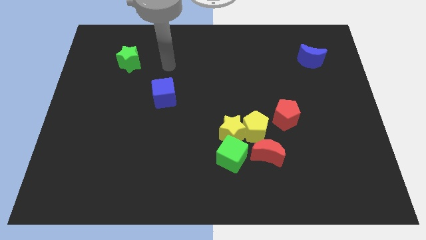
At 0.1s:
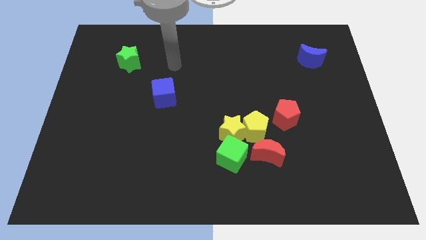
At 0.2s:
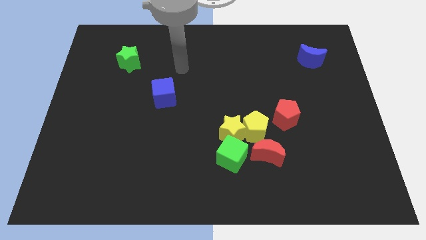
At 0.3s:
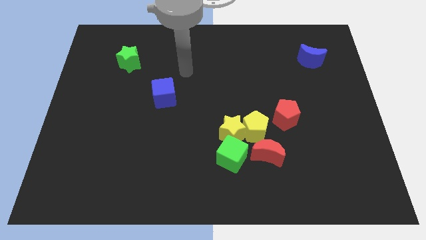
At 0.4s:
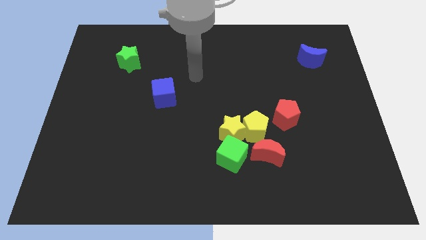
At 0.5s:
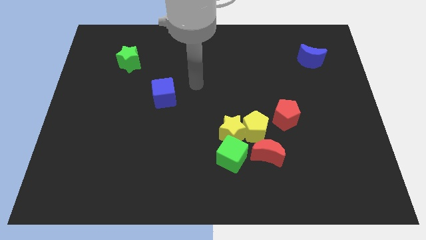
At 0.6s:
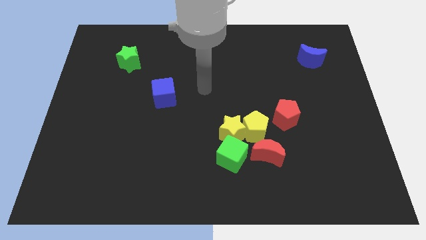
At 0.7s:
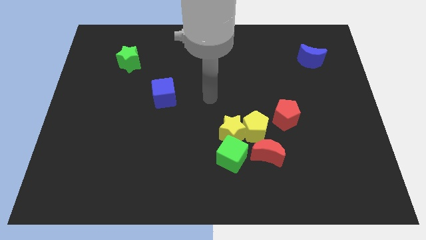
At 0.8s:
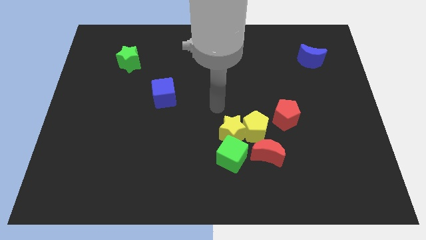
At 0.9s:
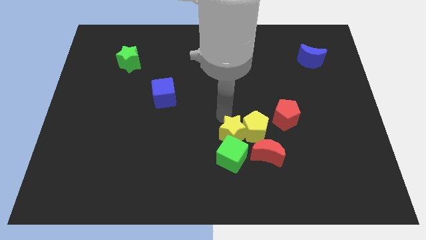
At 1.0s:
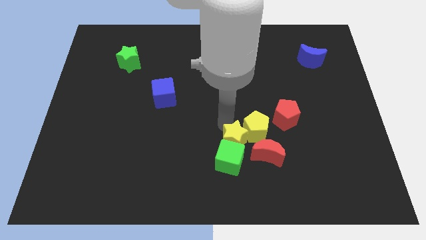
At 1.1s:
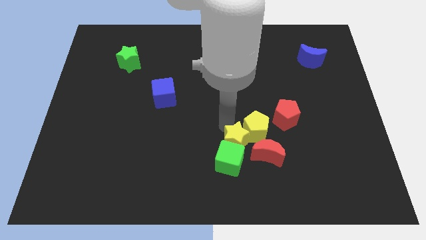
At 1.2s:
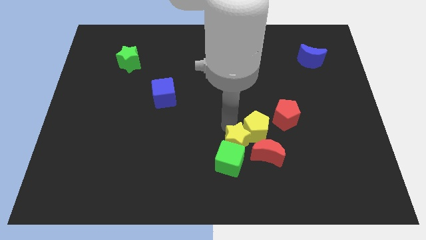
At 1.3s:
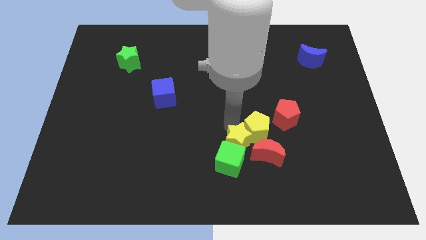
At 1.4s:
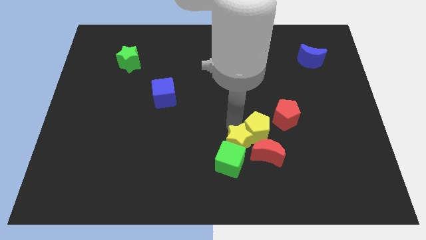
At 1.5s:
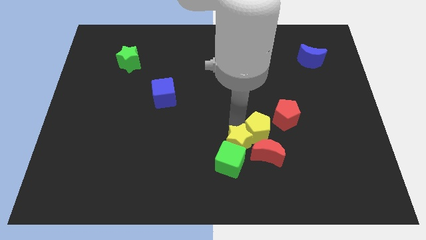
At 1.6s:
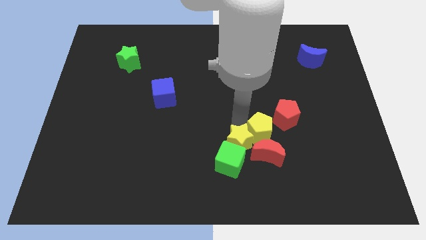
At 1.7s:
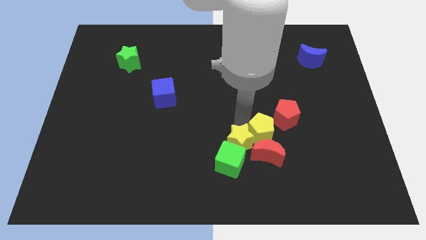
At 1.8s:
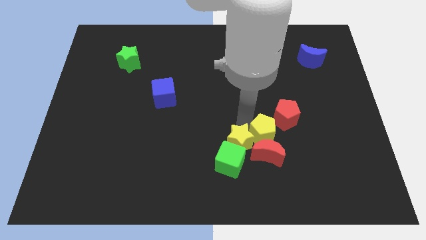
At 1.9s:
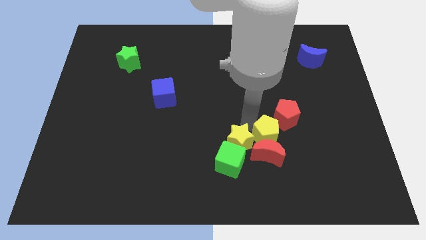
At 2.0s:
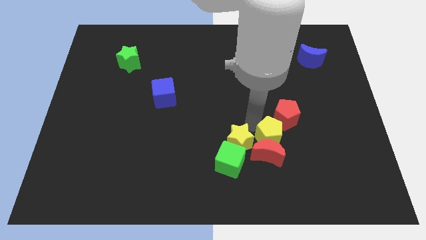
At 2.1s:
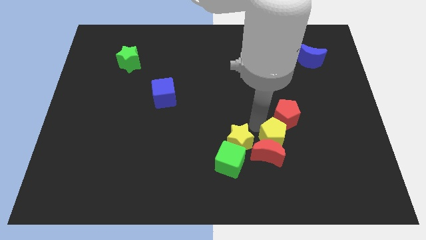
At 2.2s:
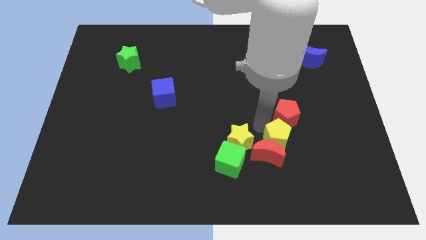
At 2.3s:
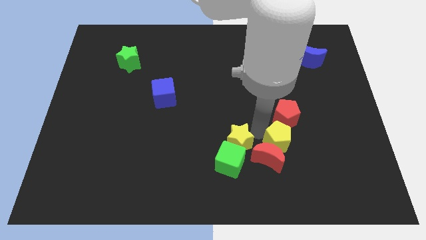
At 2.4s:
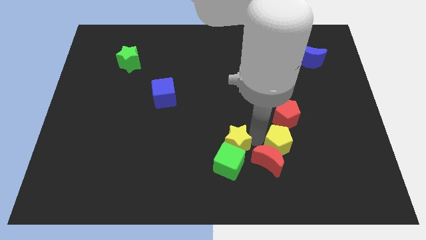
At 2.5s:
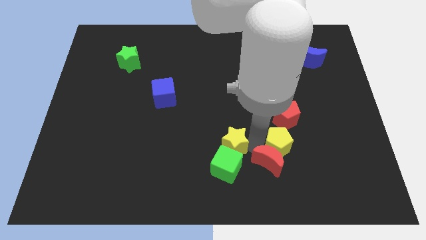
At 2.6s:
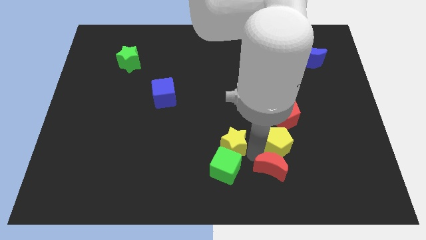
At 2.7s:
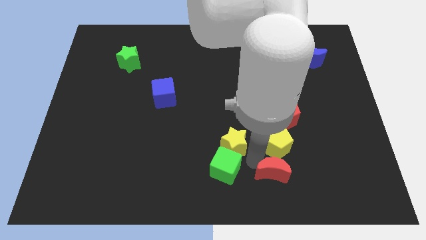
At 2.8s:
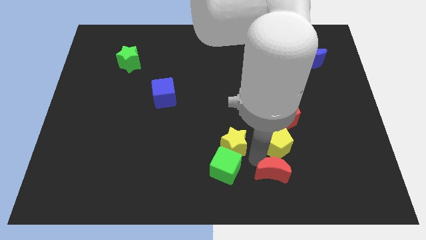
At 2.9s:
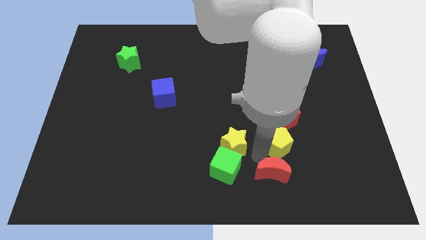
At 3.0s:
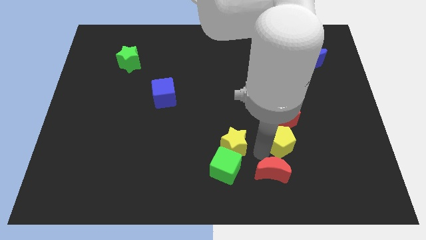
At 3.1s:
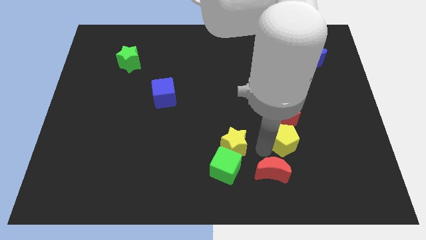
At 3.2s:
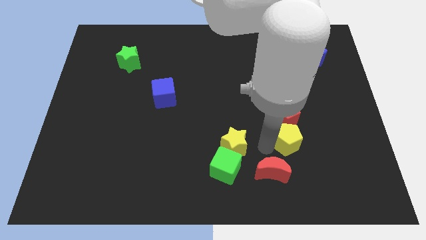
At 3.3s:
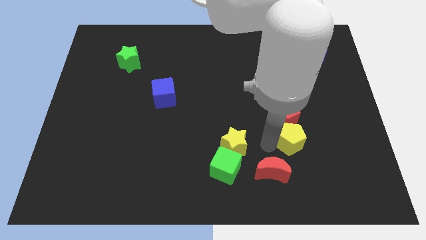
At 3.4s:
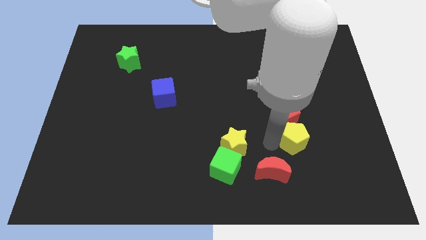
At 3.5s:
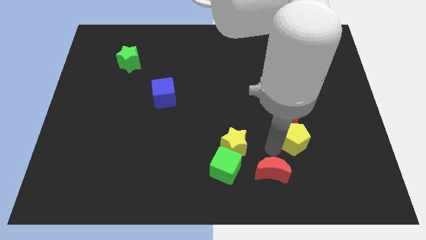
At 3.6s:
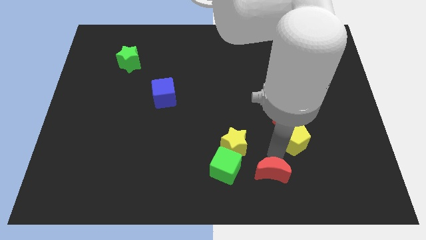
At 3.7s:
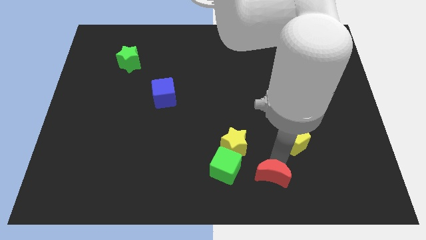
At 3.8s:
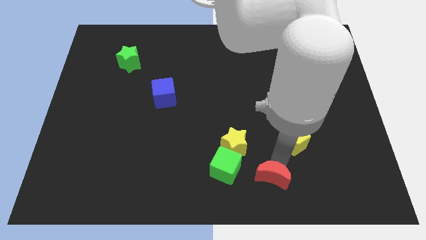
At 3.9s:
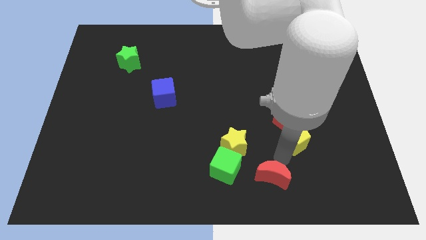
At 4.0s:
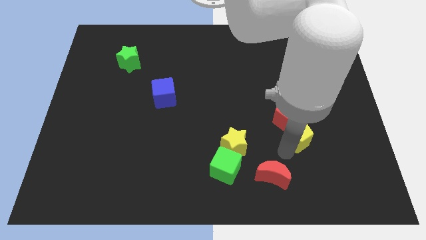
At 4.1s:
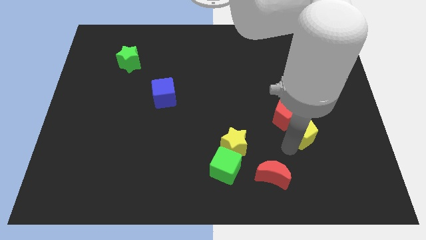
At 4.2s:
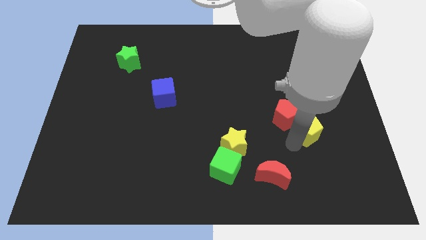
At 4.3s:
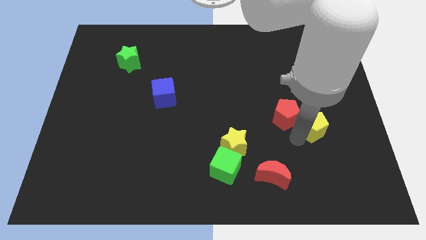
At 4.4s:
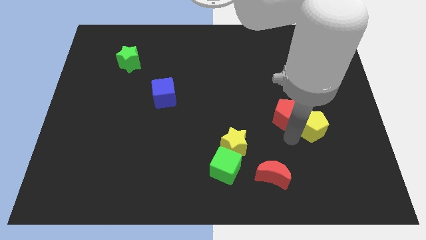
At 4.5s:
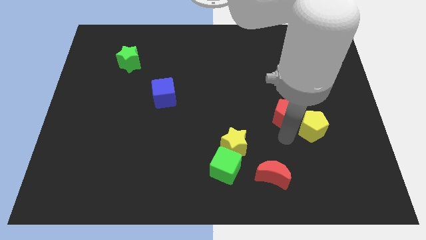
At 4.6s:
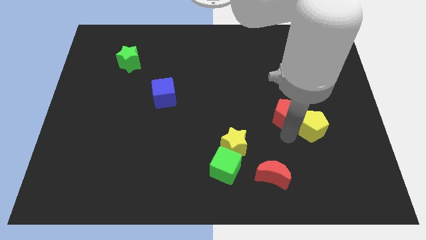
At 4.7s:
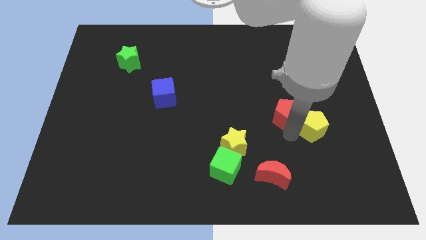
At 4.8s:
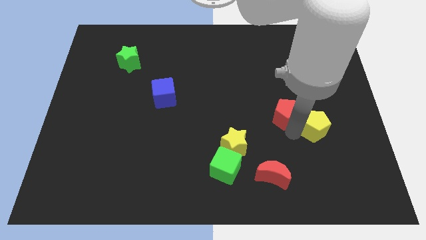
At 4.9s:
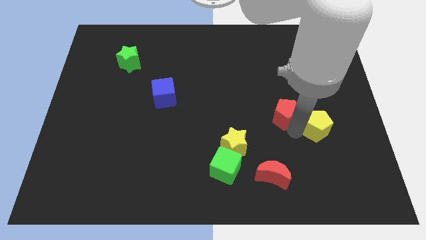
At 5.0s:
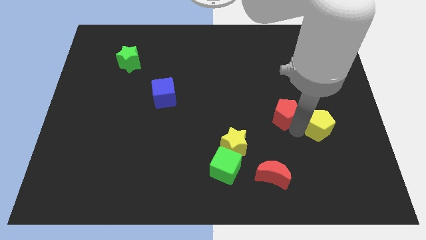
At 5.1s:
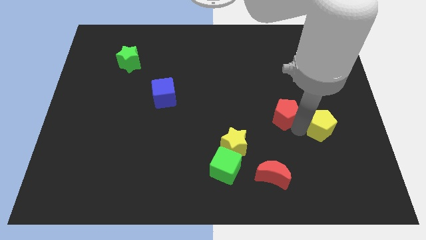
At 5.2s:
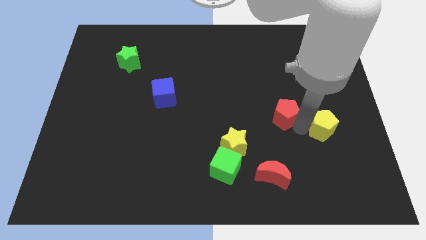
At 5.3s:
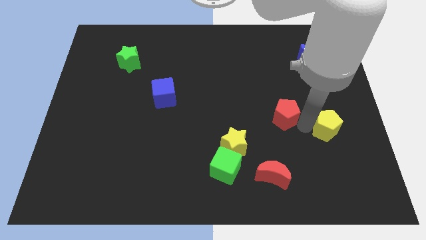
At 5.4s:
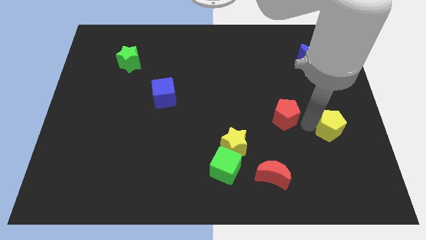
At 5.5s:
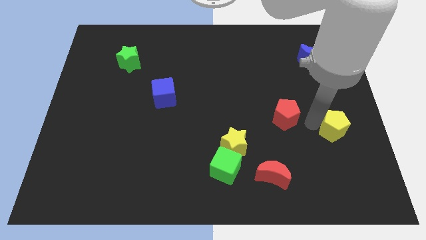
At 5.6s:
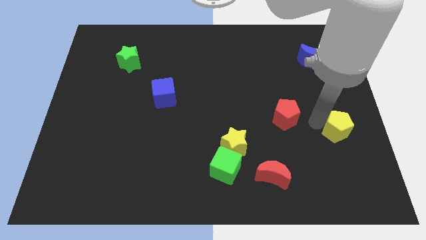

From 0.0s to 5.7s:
push the yellow pentagon to the right side

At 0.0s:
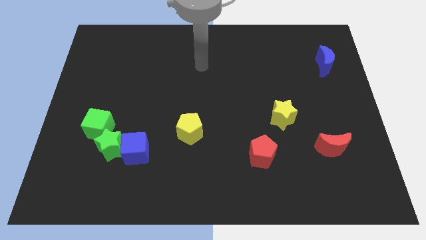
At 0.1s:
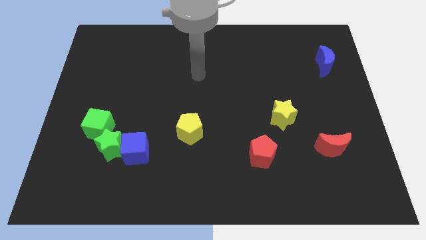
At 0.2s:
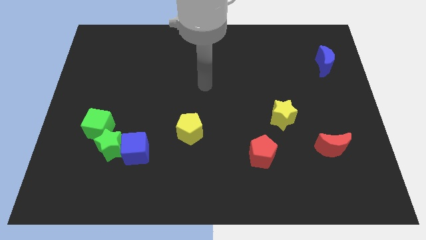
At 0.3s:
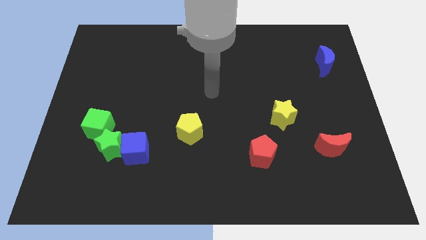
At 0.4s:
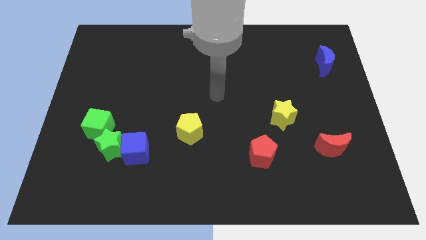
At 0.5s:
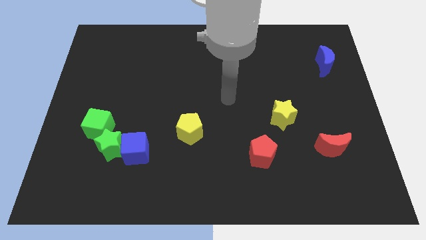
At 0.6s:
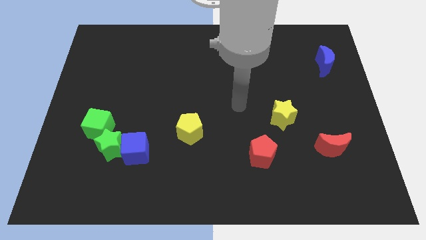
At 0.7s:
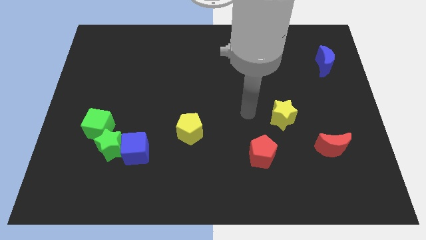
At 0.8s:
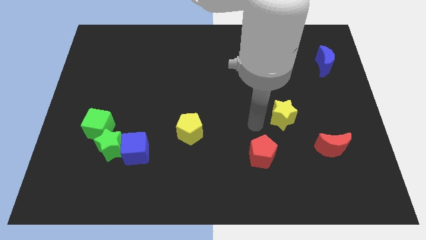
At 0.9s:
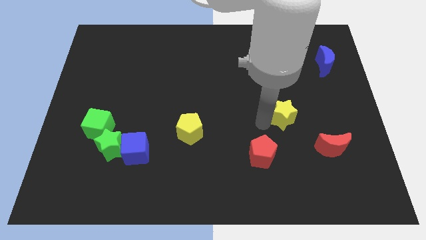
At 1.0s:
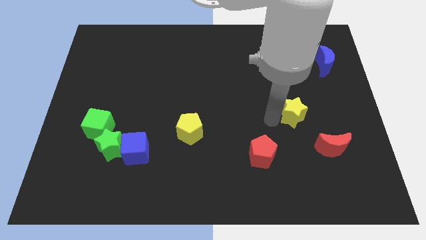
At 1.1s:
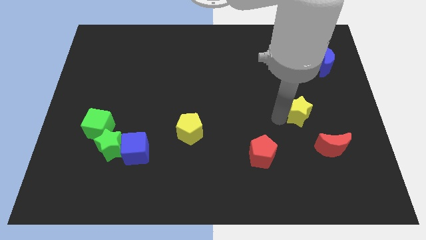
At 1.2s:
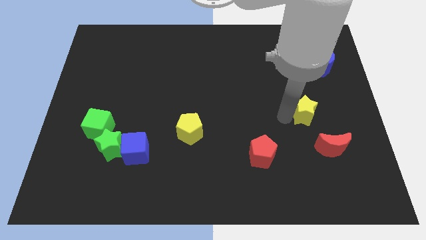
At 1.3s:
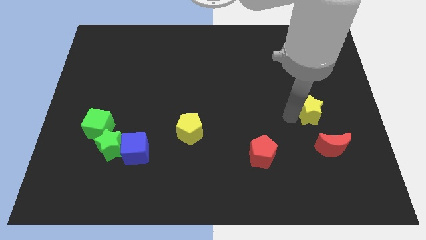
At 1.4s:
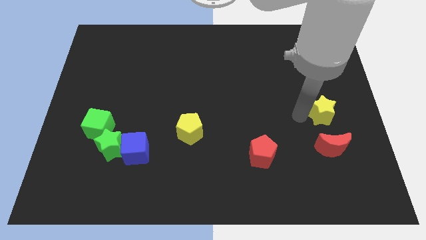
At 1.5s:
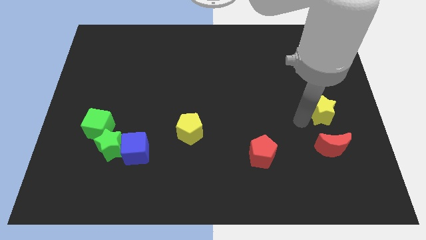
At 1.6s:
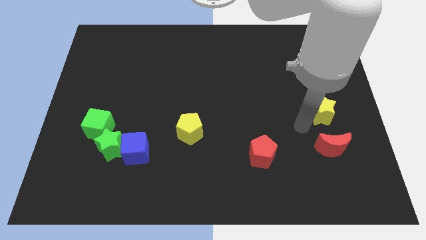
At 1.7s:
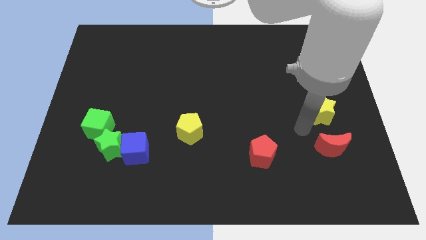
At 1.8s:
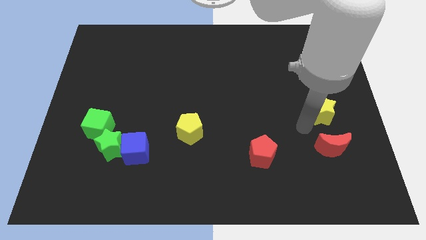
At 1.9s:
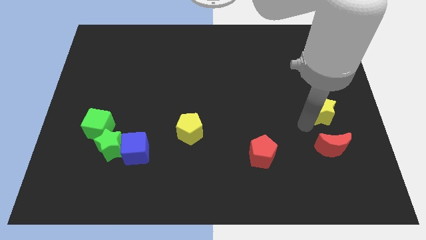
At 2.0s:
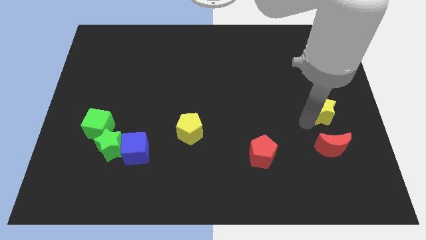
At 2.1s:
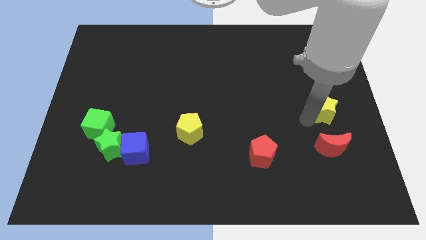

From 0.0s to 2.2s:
move the yellow star to the right side of the board
